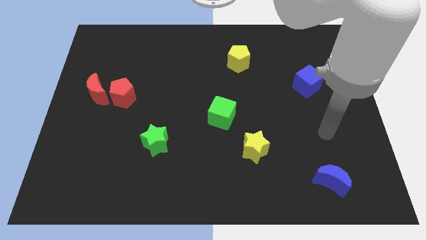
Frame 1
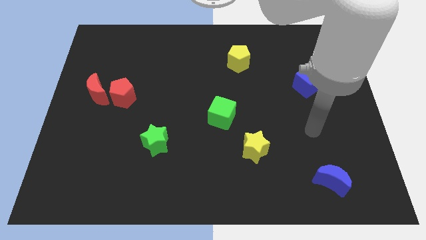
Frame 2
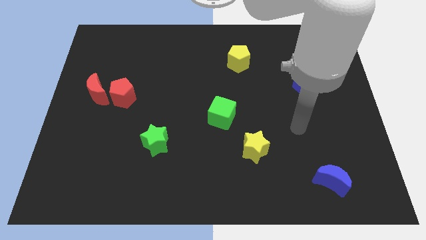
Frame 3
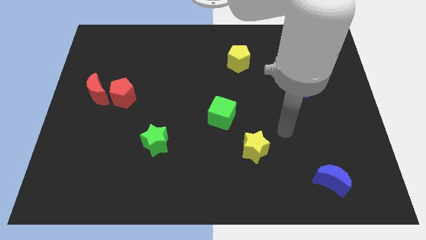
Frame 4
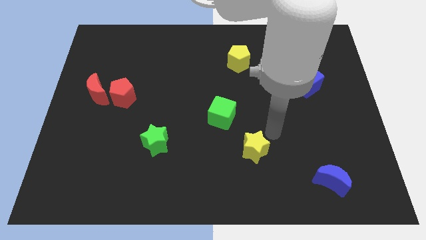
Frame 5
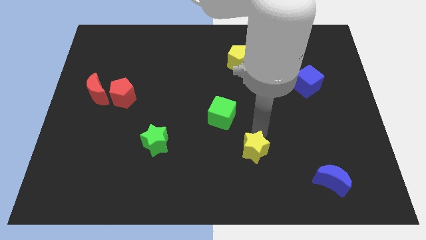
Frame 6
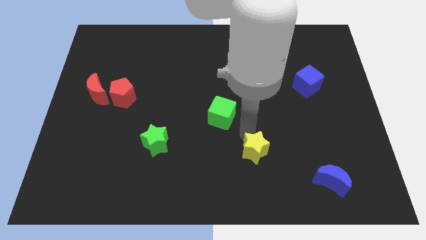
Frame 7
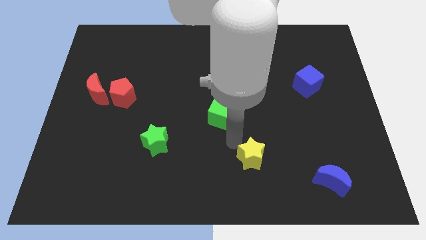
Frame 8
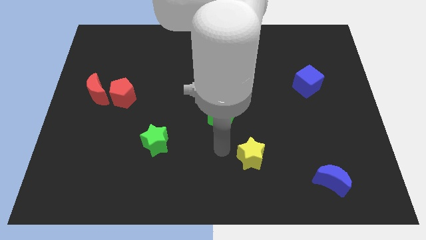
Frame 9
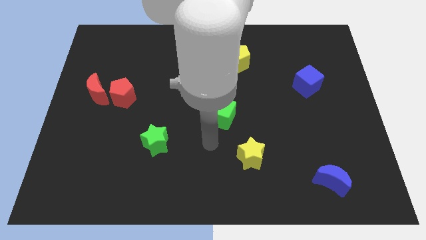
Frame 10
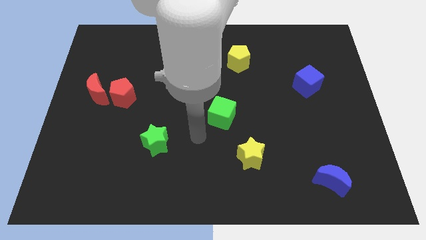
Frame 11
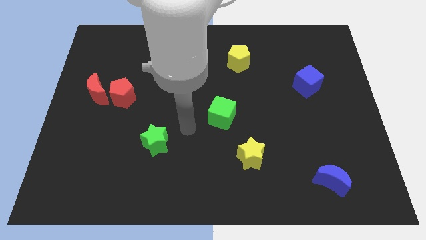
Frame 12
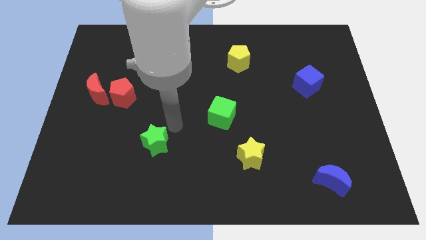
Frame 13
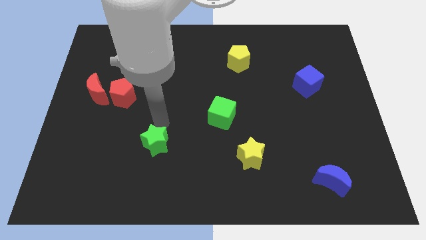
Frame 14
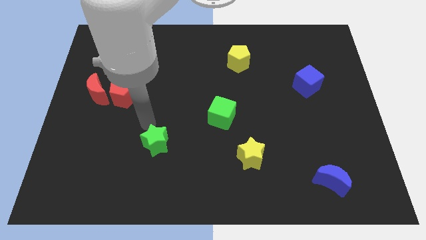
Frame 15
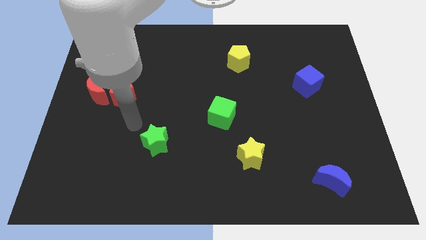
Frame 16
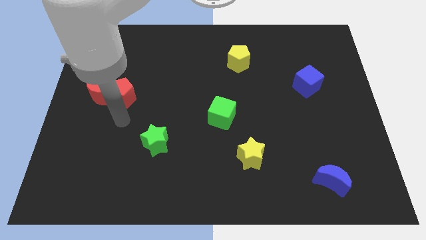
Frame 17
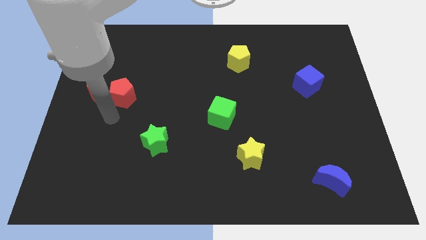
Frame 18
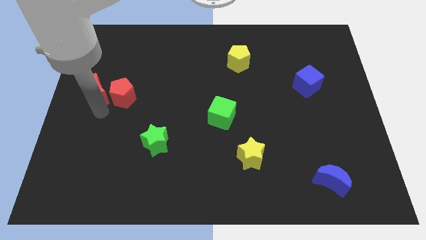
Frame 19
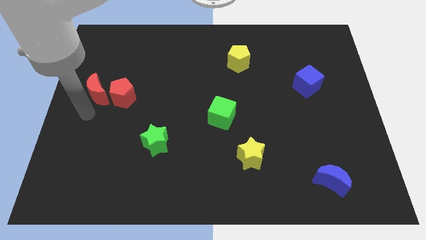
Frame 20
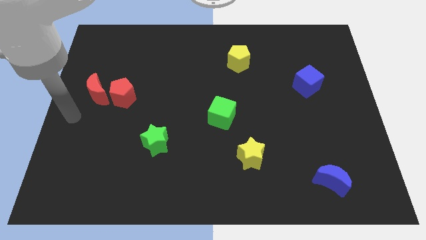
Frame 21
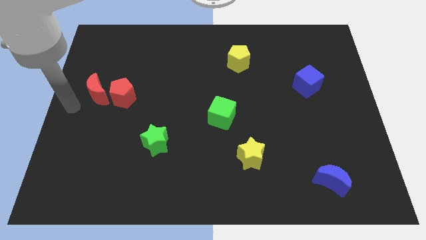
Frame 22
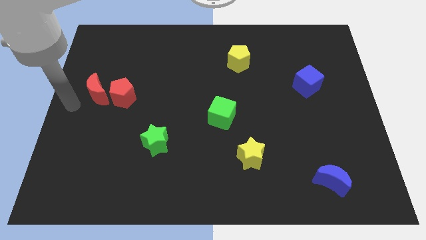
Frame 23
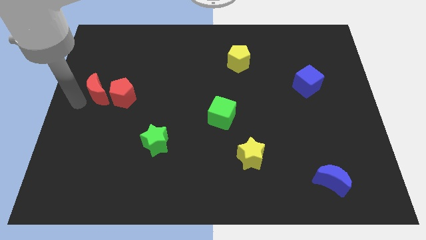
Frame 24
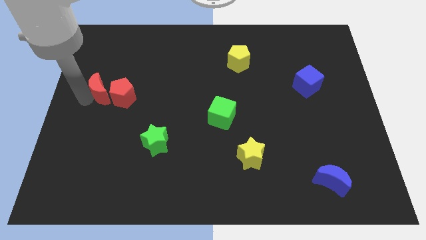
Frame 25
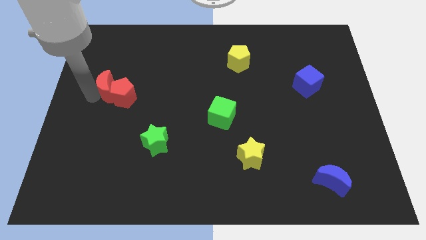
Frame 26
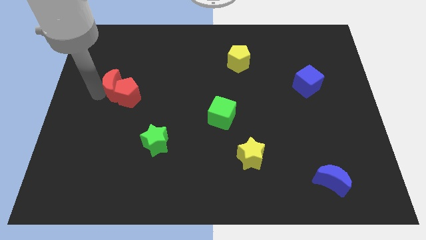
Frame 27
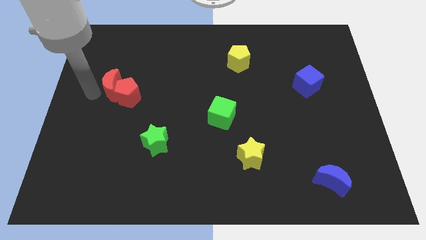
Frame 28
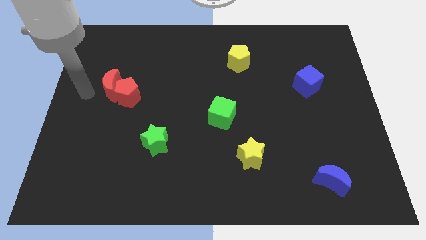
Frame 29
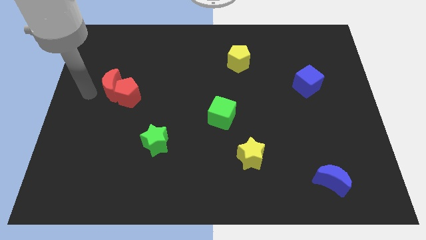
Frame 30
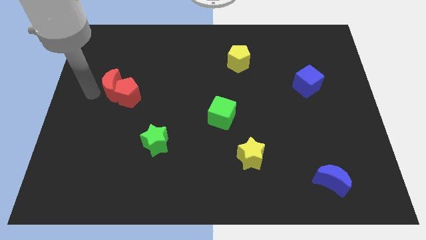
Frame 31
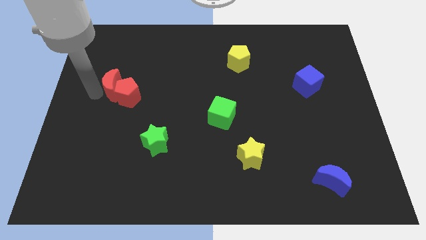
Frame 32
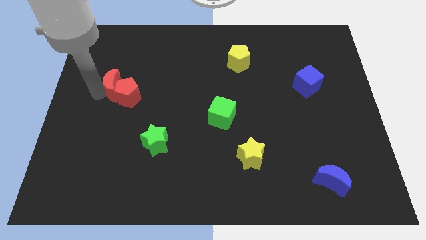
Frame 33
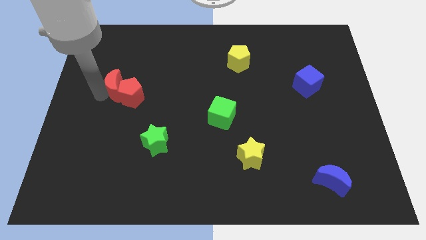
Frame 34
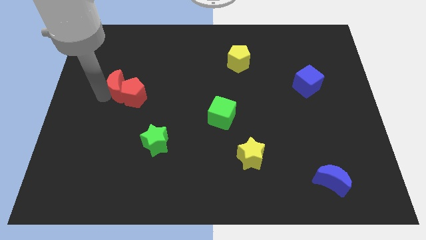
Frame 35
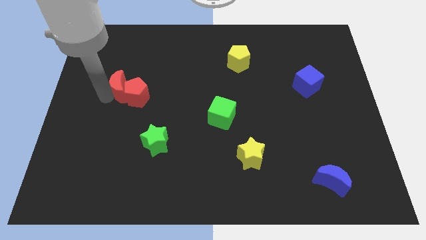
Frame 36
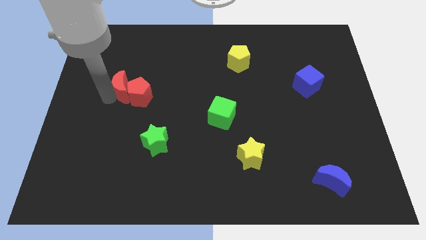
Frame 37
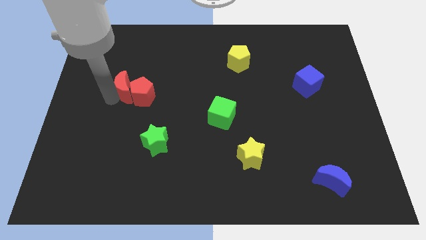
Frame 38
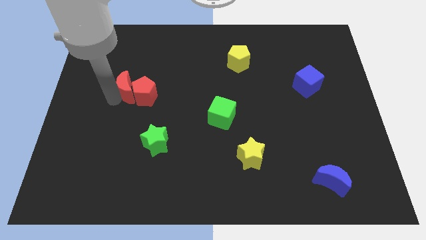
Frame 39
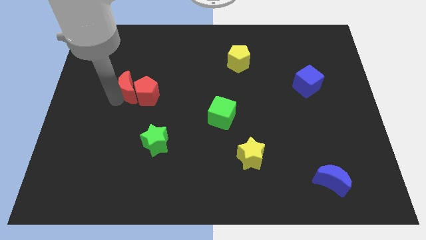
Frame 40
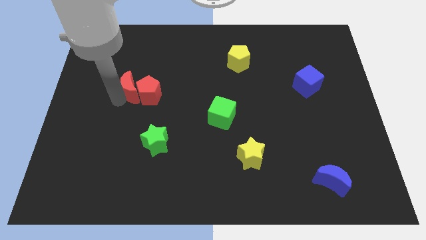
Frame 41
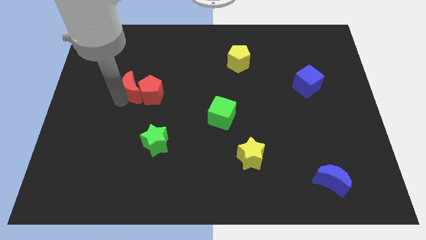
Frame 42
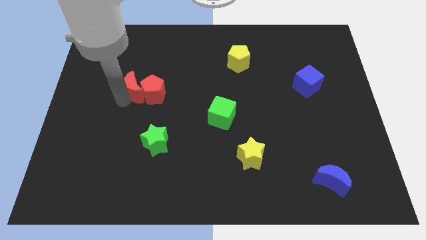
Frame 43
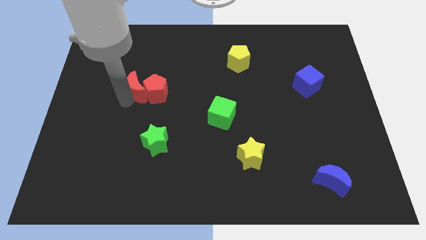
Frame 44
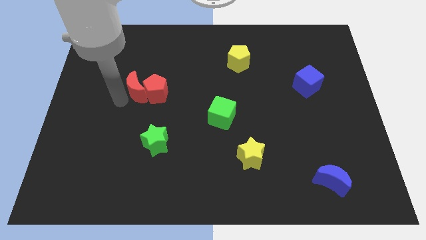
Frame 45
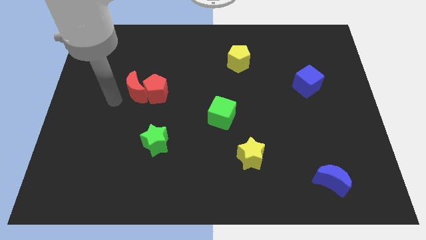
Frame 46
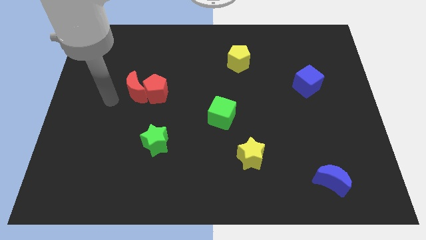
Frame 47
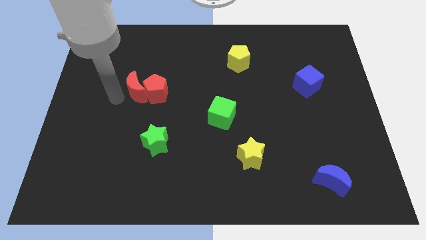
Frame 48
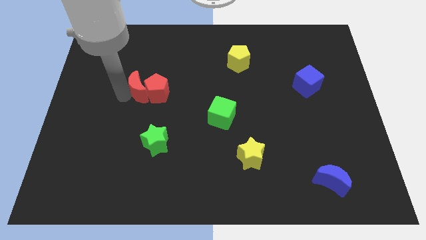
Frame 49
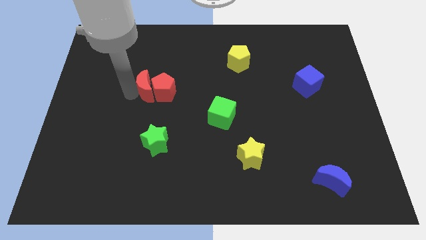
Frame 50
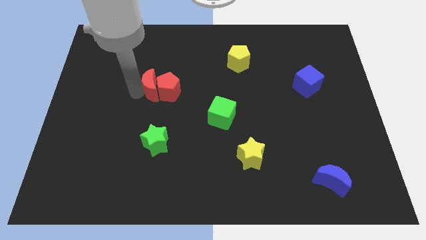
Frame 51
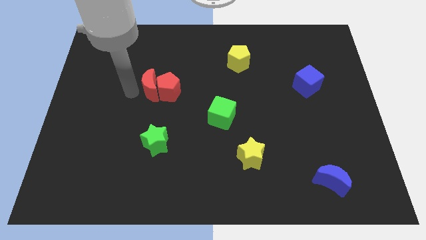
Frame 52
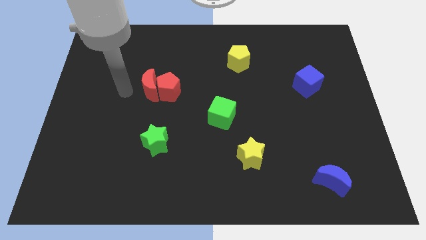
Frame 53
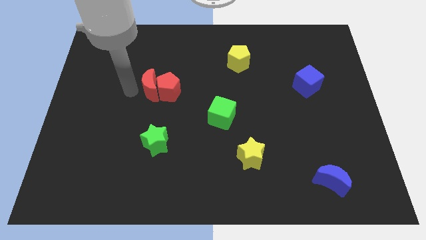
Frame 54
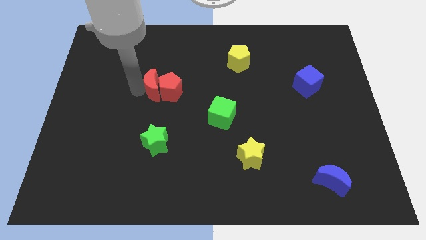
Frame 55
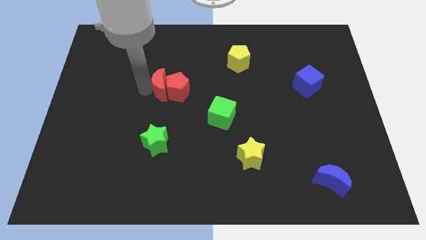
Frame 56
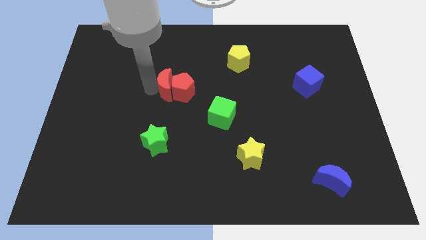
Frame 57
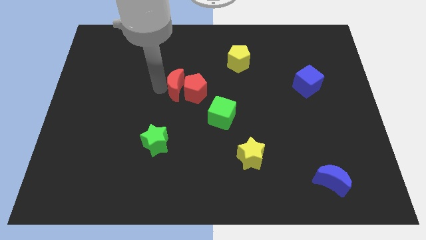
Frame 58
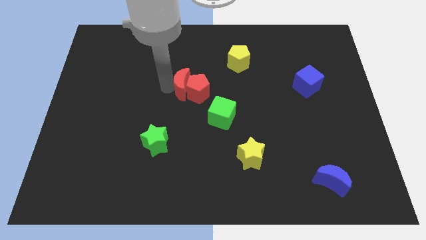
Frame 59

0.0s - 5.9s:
slide the red moon to the right

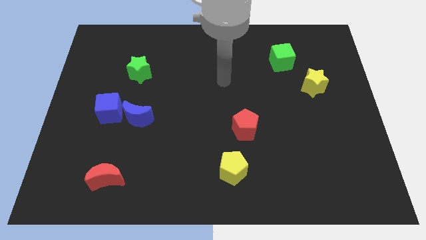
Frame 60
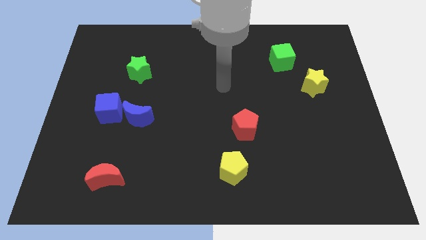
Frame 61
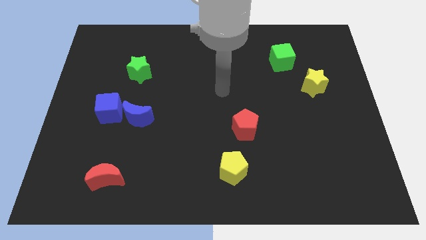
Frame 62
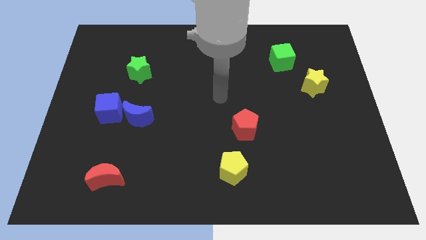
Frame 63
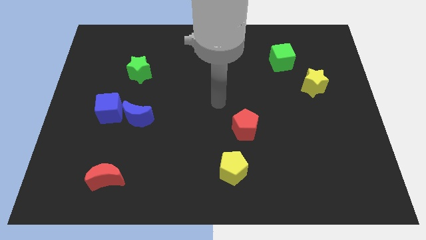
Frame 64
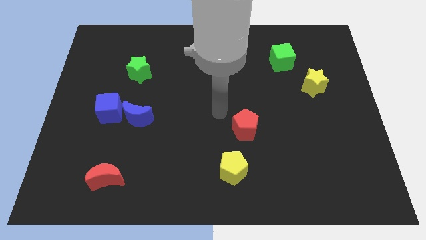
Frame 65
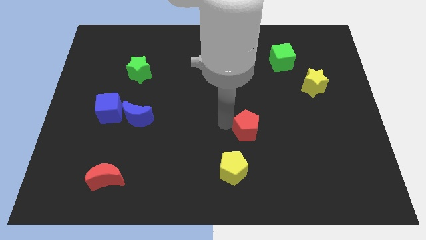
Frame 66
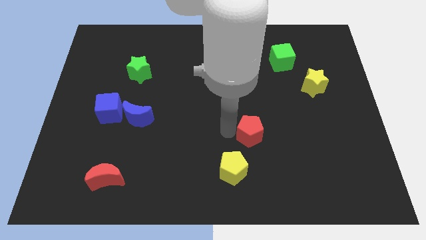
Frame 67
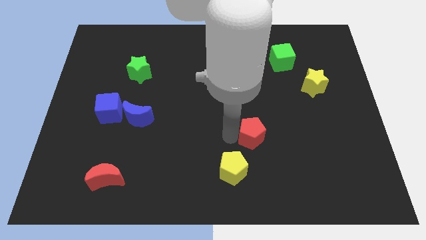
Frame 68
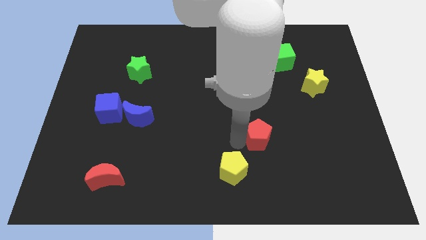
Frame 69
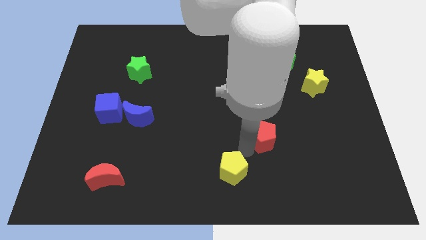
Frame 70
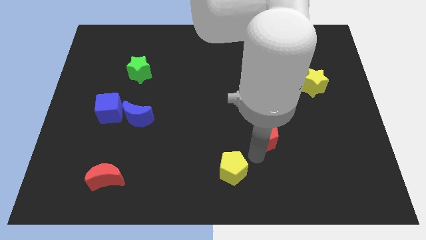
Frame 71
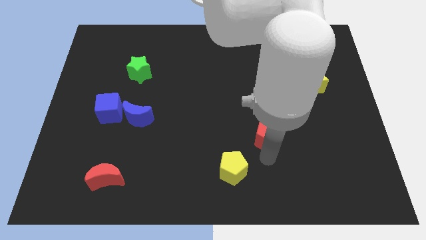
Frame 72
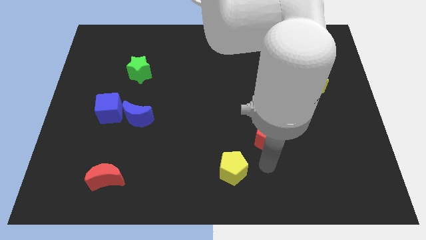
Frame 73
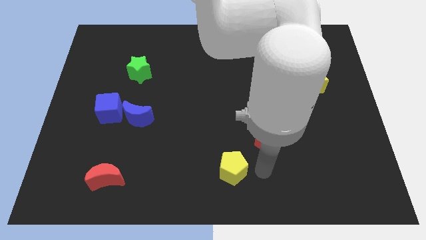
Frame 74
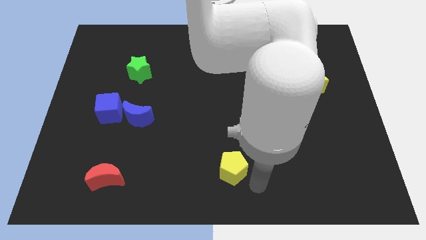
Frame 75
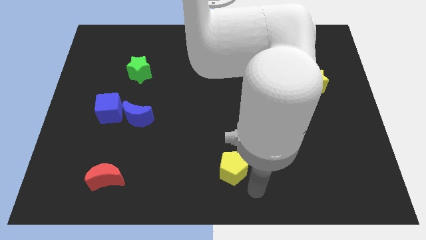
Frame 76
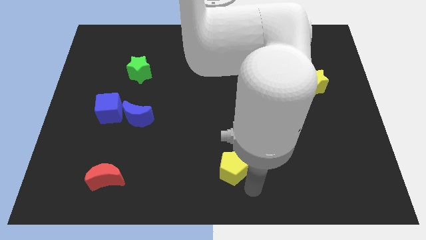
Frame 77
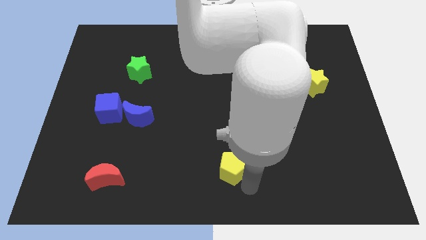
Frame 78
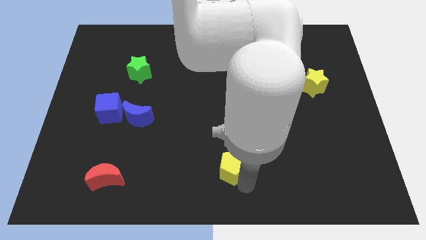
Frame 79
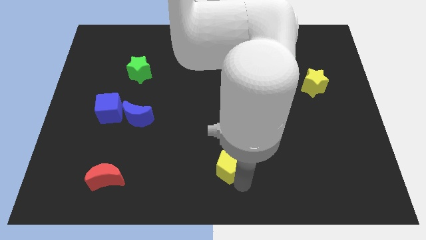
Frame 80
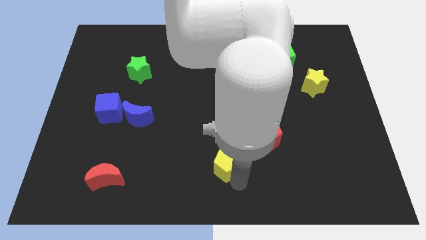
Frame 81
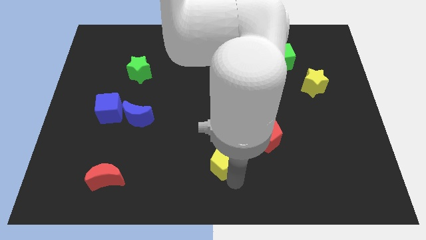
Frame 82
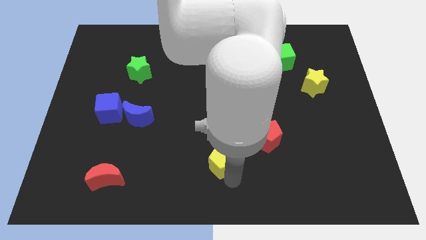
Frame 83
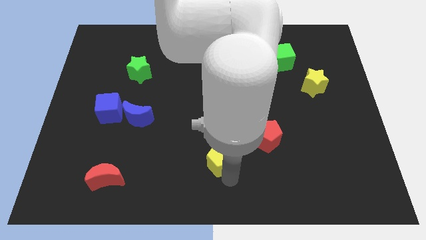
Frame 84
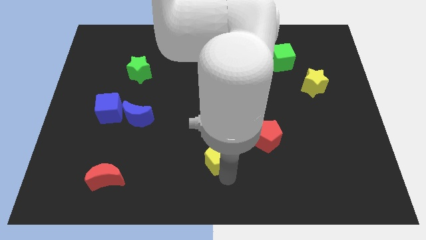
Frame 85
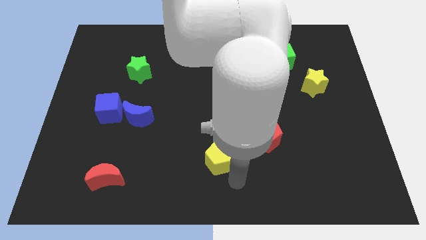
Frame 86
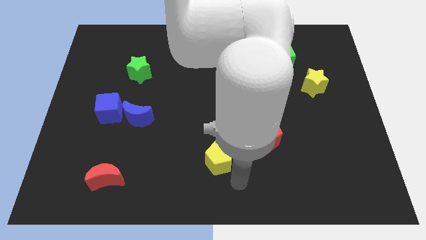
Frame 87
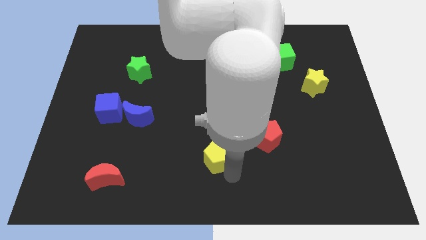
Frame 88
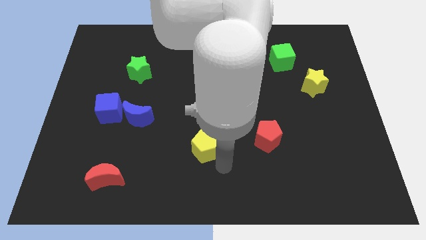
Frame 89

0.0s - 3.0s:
slide the yellow pentagon up and then left a bit
